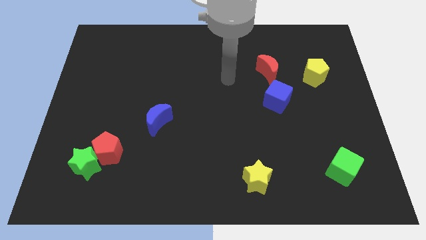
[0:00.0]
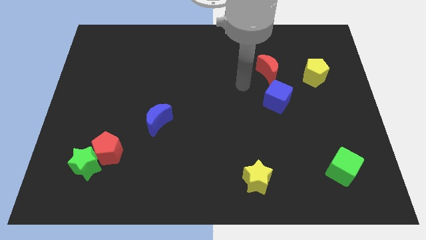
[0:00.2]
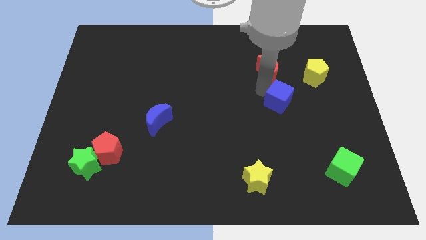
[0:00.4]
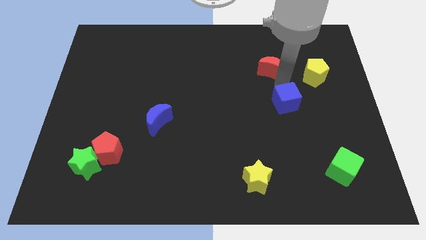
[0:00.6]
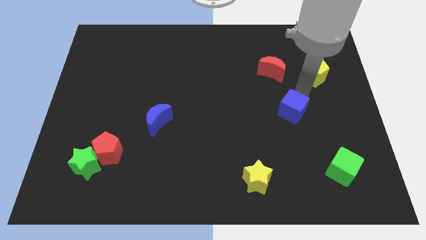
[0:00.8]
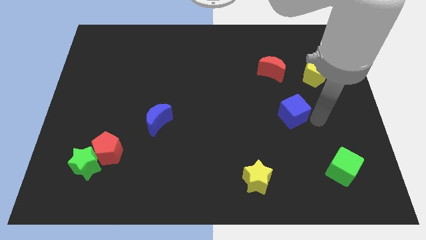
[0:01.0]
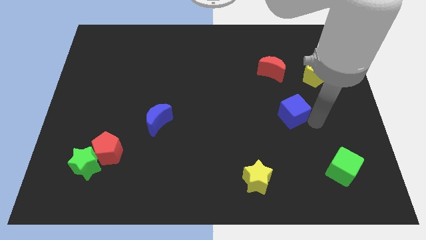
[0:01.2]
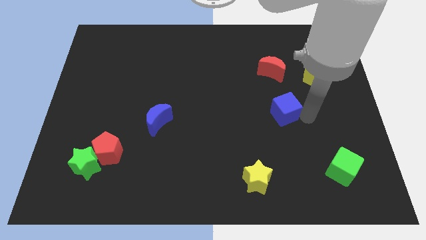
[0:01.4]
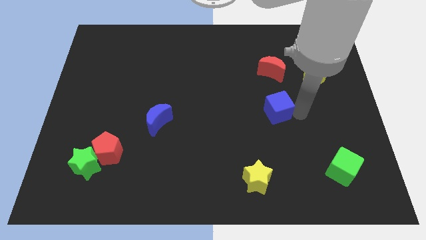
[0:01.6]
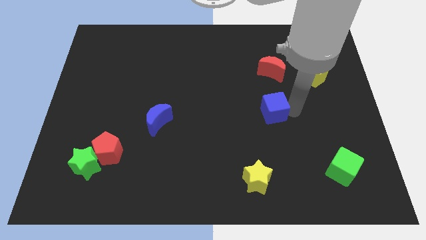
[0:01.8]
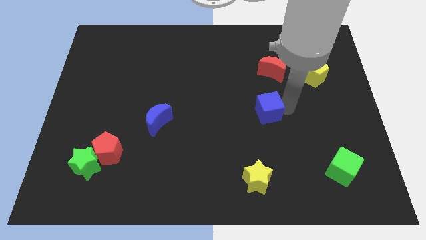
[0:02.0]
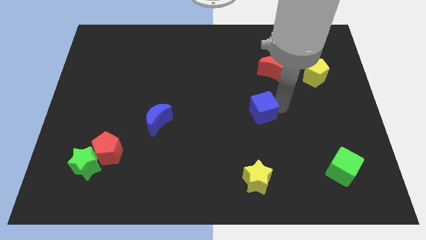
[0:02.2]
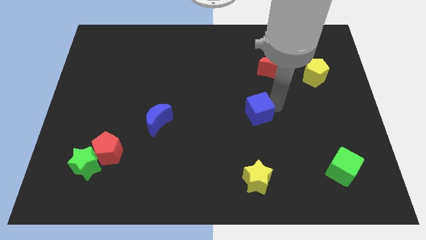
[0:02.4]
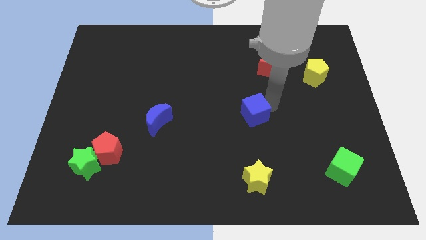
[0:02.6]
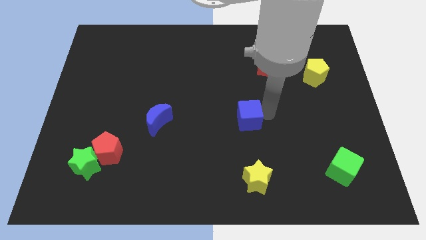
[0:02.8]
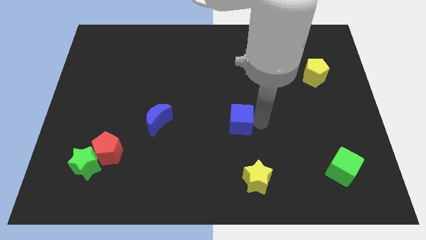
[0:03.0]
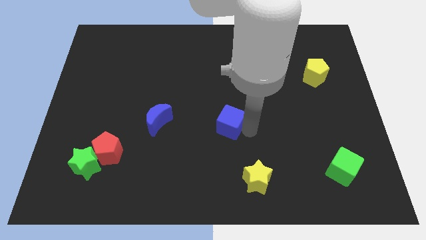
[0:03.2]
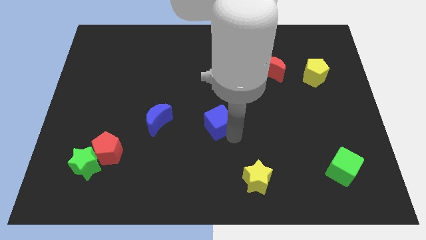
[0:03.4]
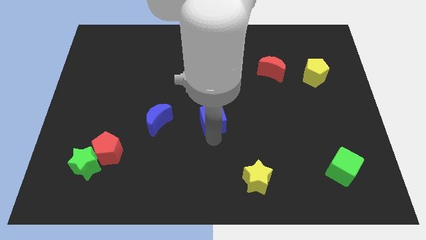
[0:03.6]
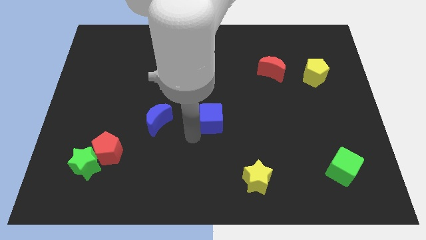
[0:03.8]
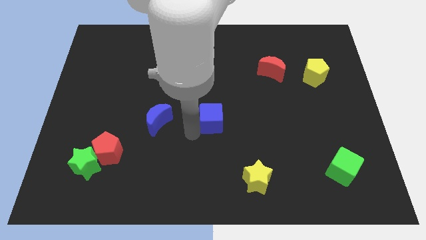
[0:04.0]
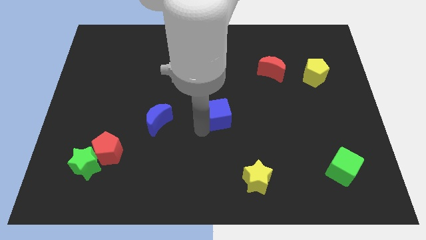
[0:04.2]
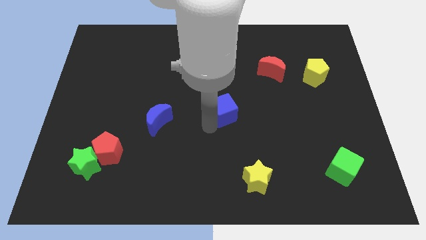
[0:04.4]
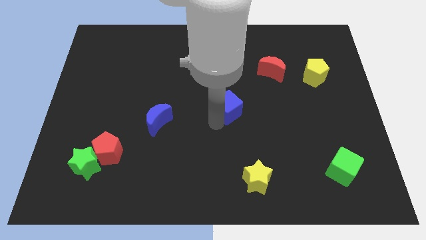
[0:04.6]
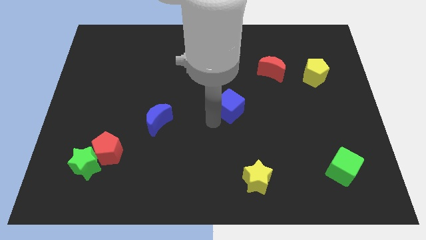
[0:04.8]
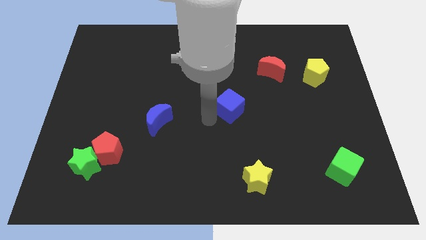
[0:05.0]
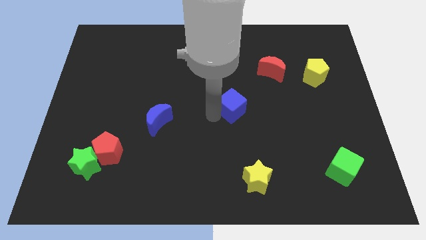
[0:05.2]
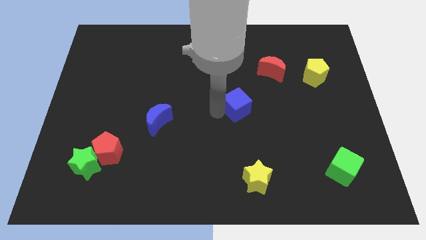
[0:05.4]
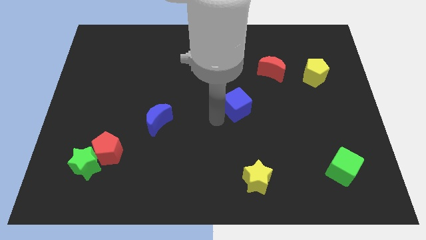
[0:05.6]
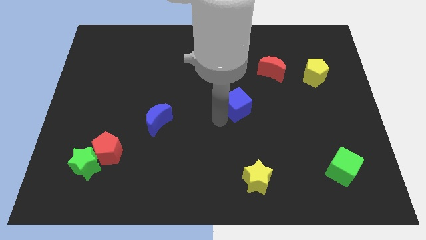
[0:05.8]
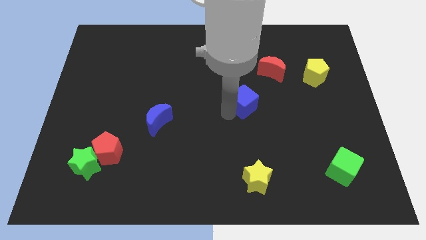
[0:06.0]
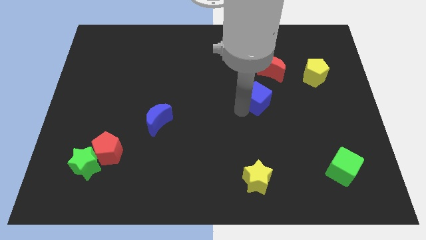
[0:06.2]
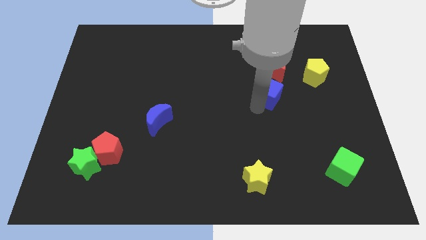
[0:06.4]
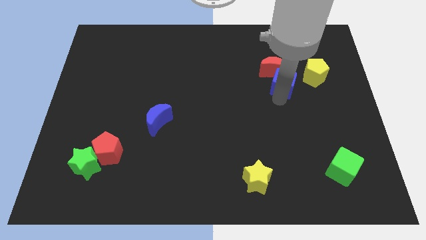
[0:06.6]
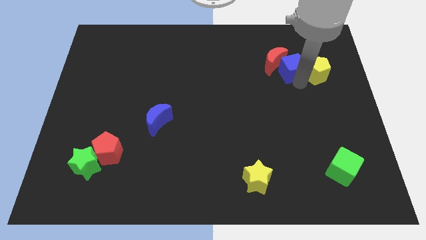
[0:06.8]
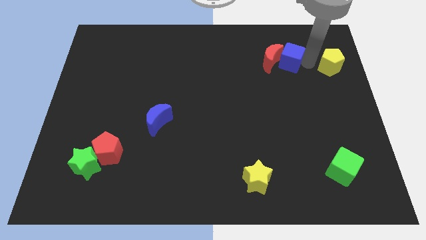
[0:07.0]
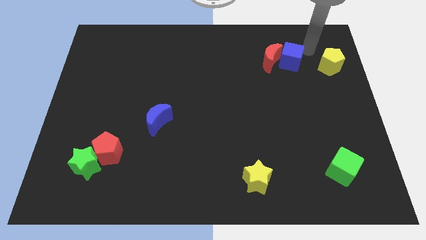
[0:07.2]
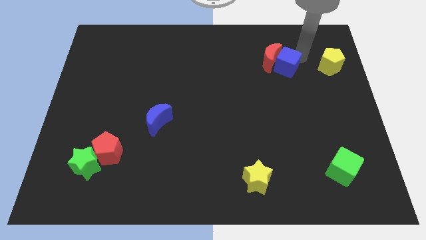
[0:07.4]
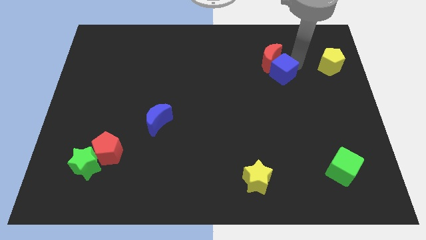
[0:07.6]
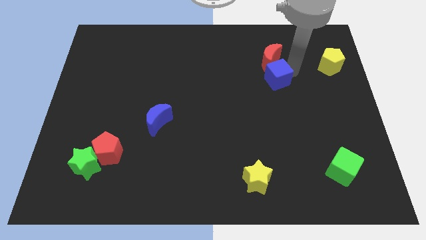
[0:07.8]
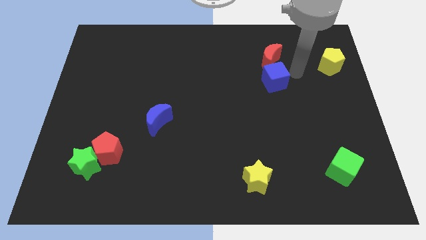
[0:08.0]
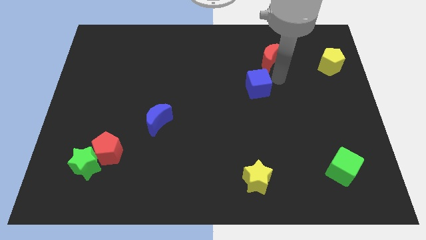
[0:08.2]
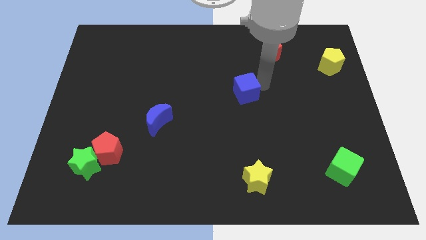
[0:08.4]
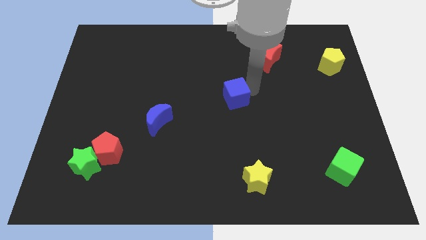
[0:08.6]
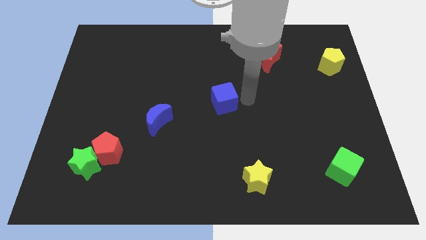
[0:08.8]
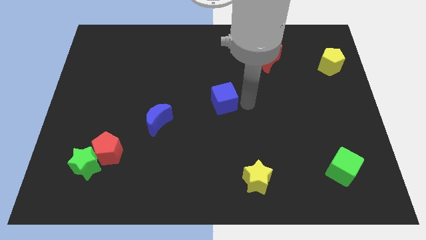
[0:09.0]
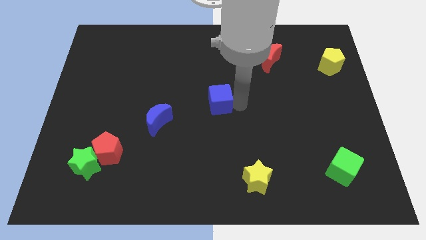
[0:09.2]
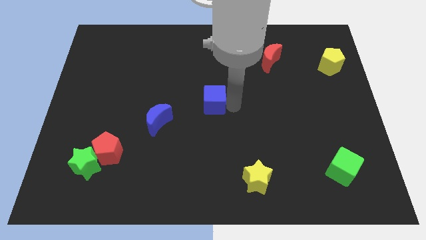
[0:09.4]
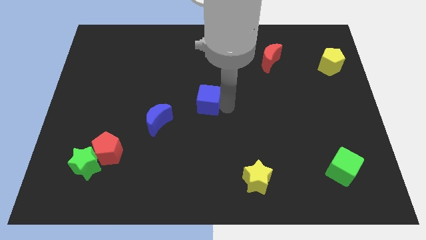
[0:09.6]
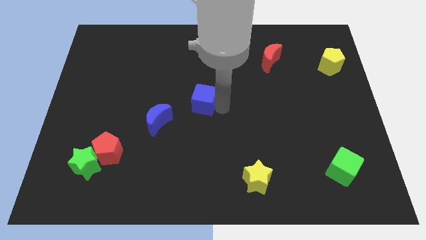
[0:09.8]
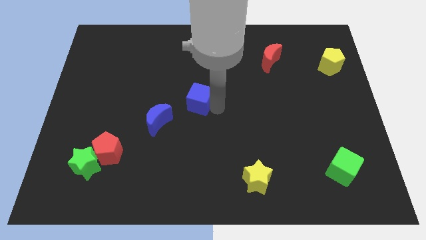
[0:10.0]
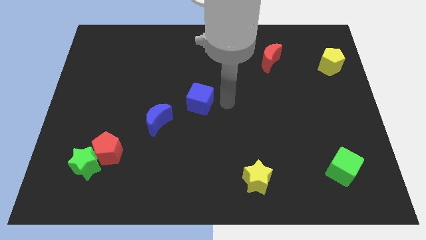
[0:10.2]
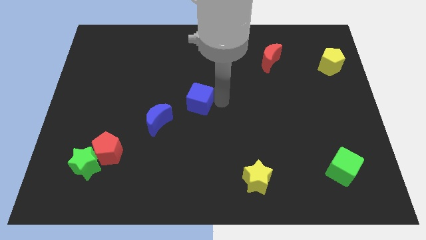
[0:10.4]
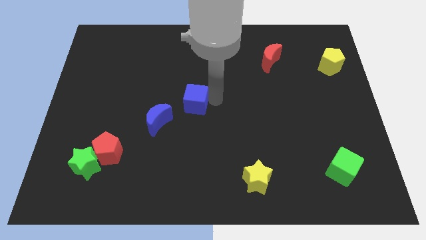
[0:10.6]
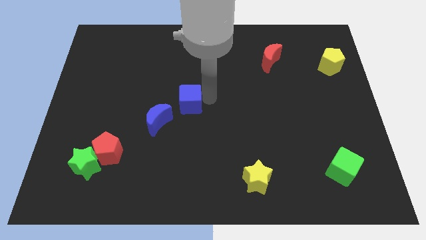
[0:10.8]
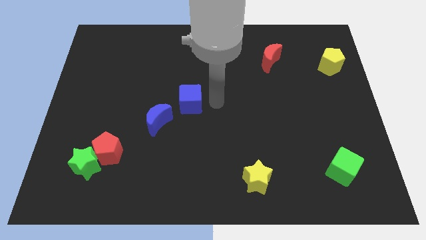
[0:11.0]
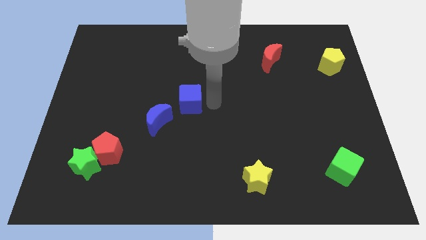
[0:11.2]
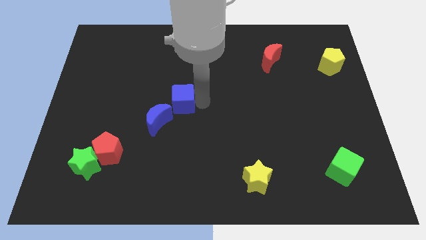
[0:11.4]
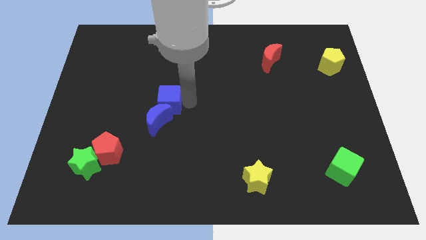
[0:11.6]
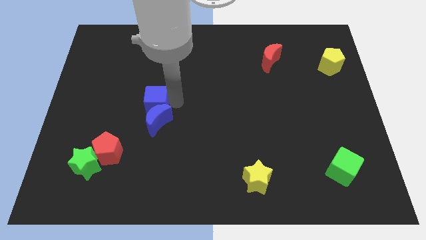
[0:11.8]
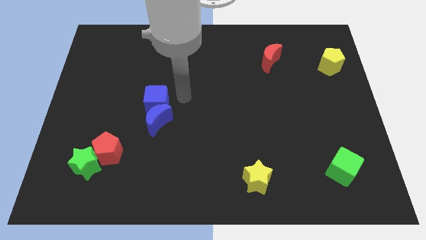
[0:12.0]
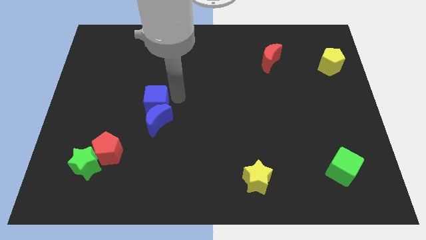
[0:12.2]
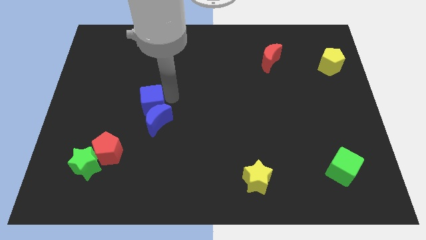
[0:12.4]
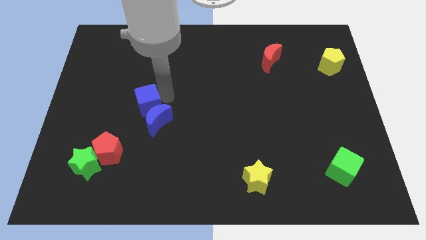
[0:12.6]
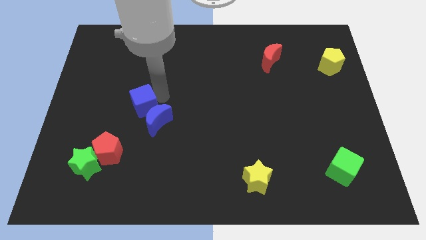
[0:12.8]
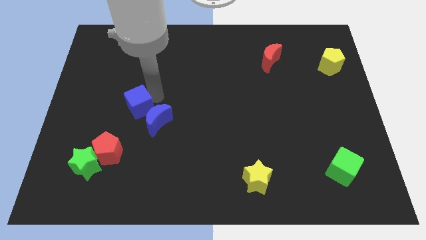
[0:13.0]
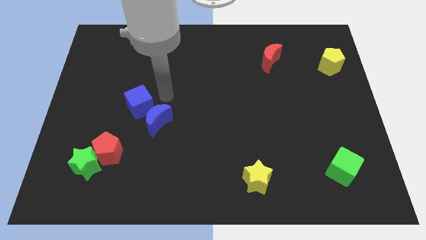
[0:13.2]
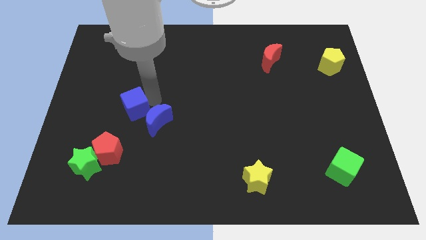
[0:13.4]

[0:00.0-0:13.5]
slide the blue cube to the top side of the red pentagon

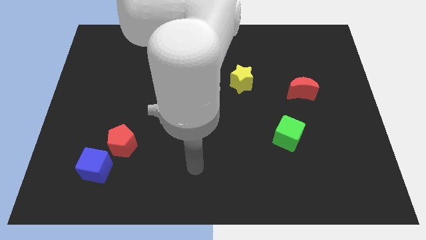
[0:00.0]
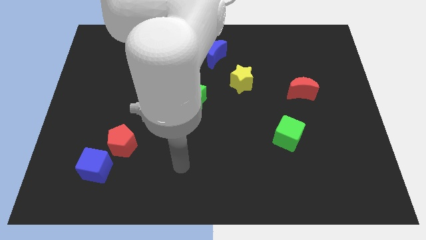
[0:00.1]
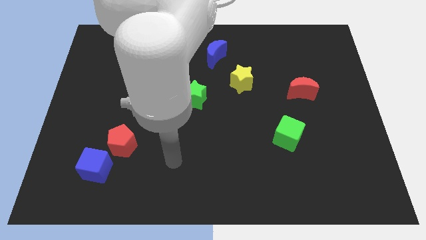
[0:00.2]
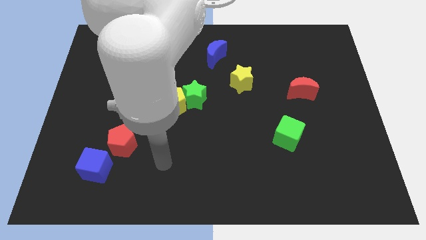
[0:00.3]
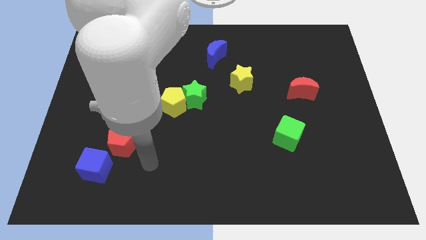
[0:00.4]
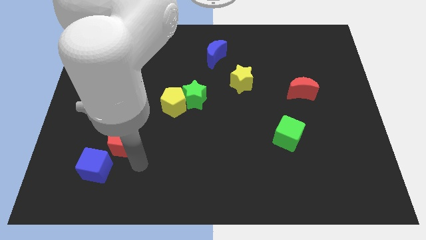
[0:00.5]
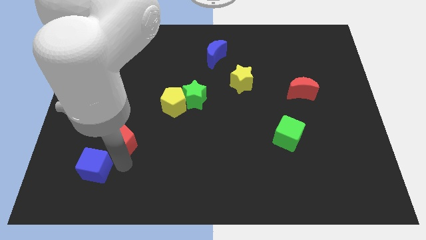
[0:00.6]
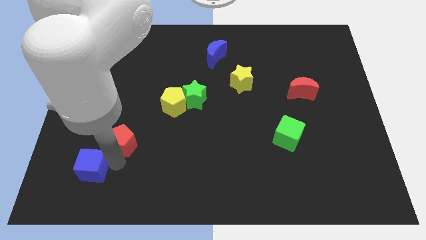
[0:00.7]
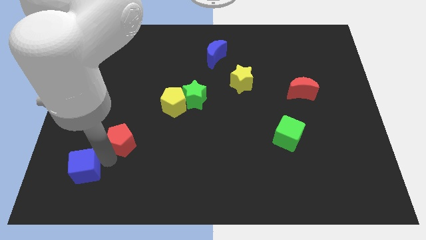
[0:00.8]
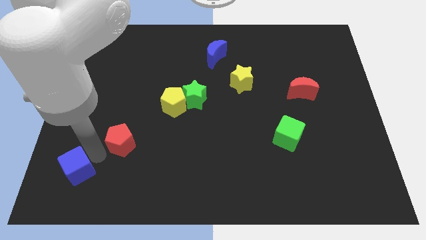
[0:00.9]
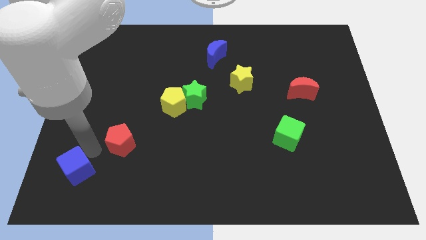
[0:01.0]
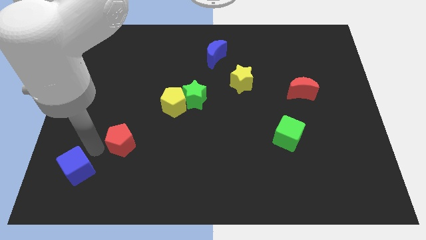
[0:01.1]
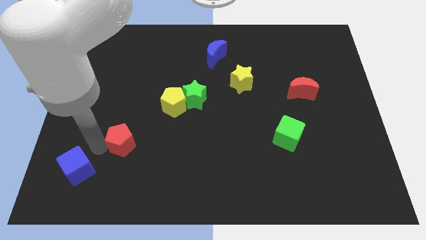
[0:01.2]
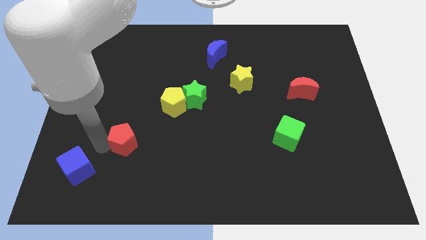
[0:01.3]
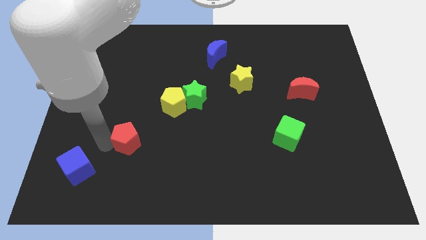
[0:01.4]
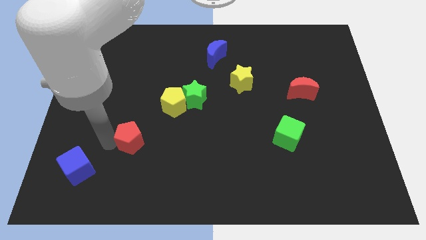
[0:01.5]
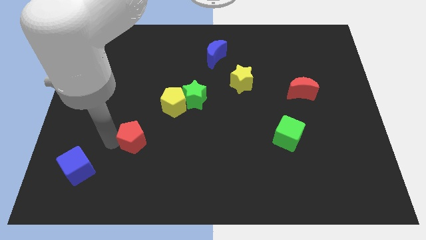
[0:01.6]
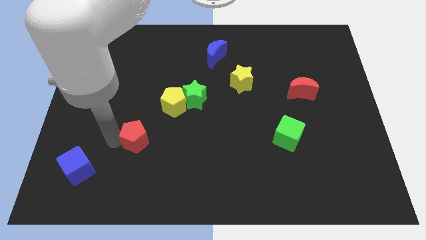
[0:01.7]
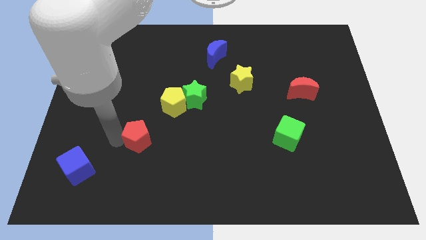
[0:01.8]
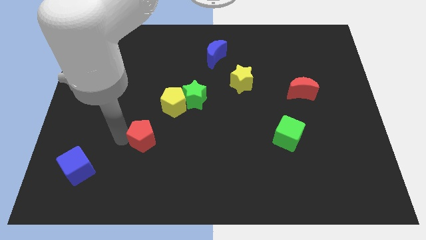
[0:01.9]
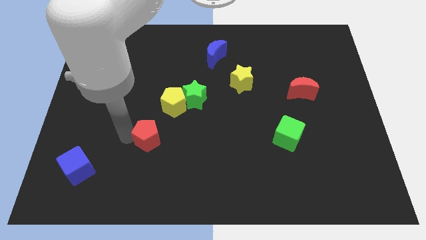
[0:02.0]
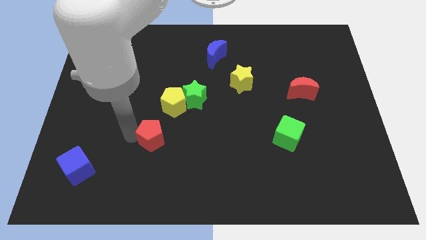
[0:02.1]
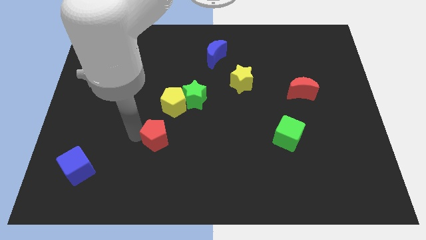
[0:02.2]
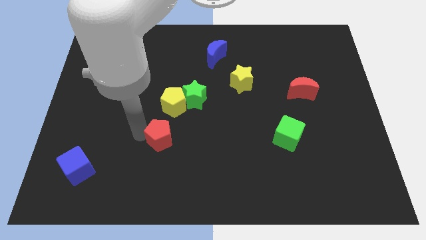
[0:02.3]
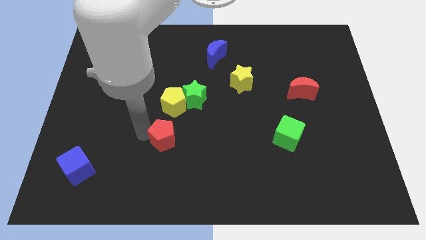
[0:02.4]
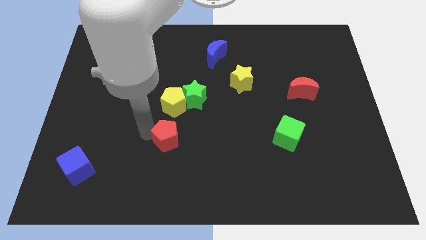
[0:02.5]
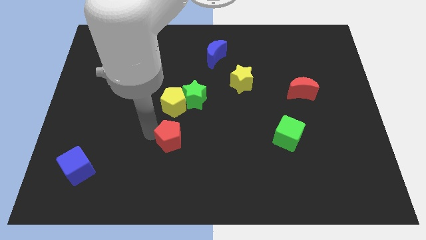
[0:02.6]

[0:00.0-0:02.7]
move the red pentagon to the bottom side of the green star
